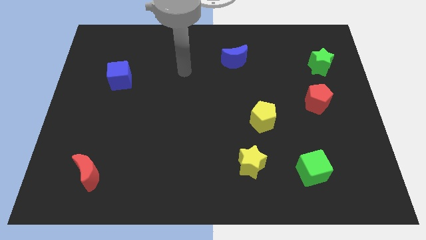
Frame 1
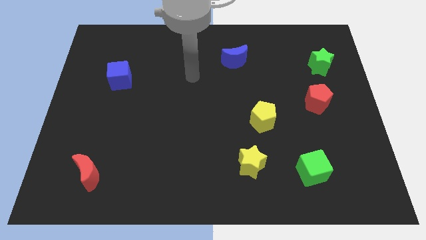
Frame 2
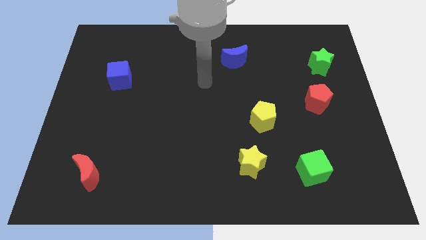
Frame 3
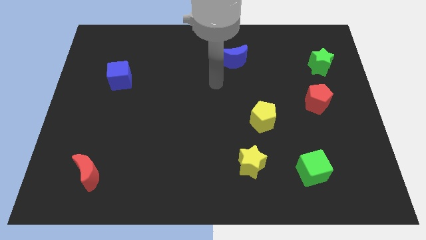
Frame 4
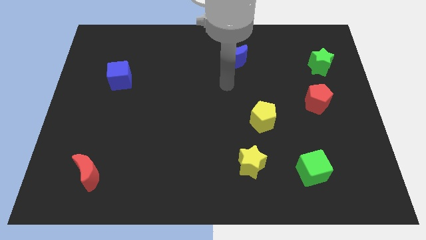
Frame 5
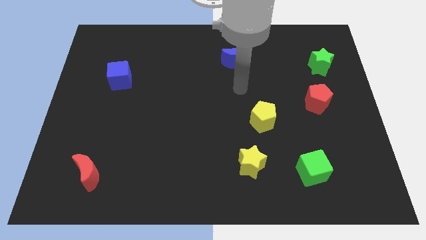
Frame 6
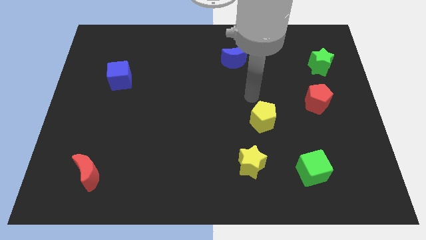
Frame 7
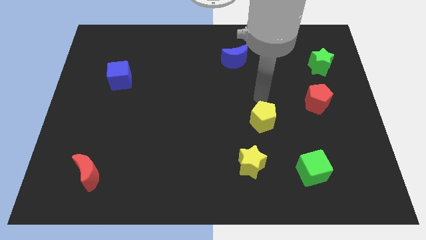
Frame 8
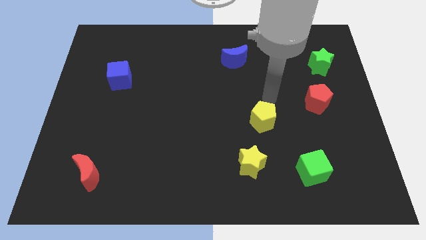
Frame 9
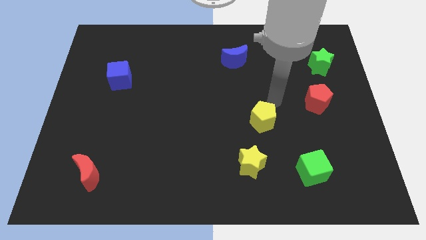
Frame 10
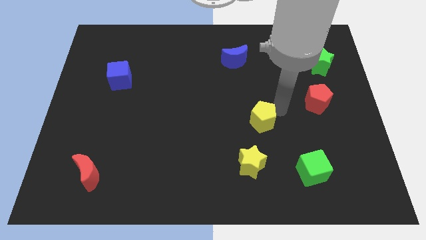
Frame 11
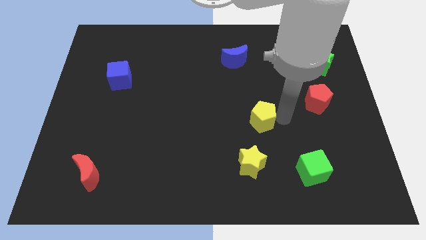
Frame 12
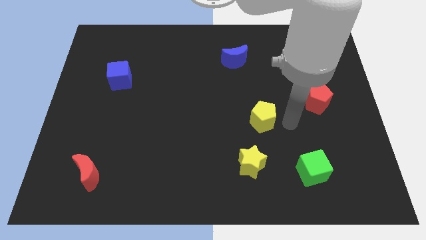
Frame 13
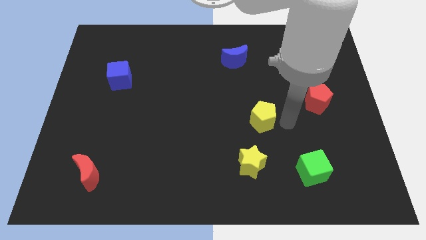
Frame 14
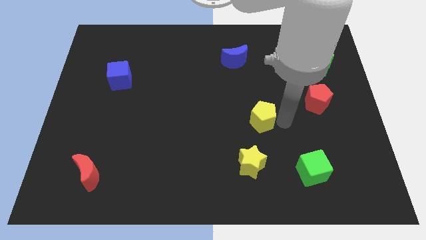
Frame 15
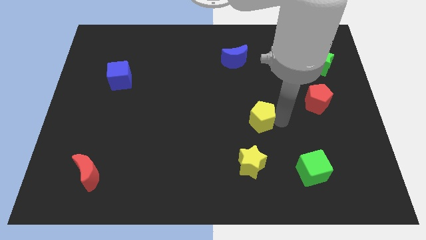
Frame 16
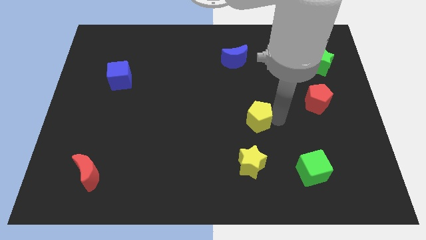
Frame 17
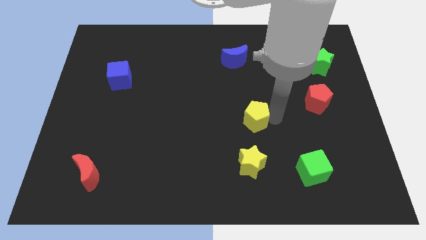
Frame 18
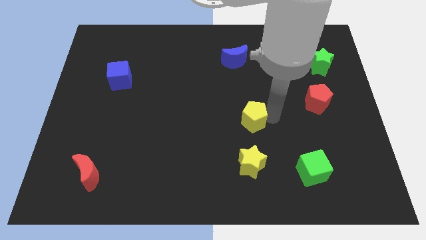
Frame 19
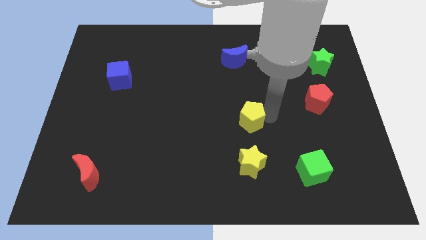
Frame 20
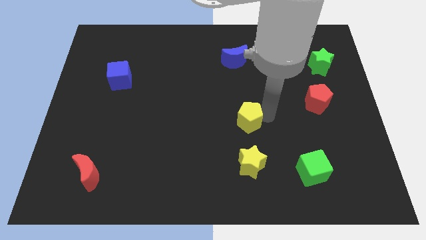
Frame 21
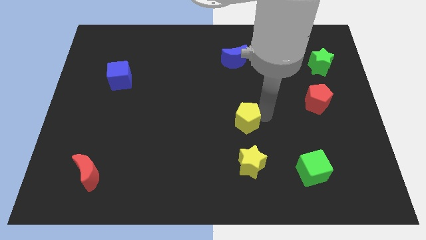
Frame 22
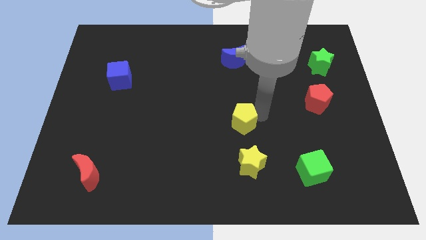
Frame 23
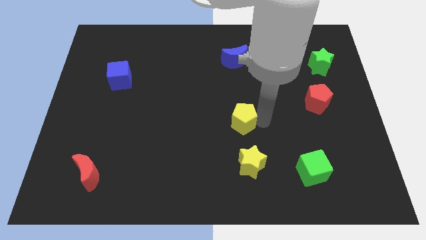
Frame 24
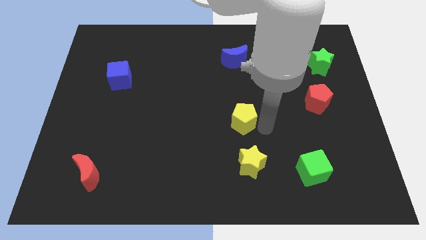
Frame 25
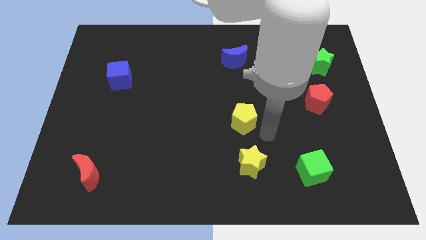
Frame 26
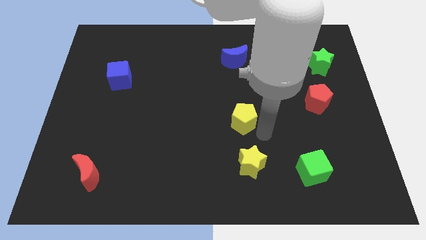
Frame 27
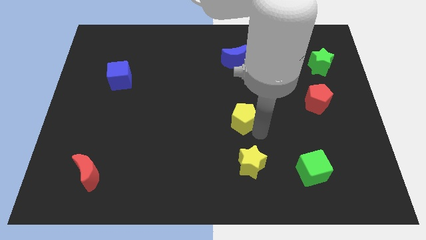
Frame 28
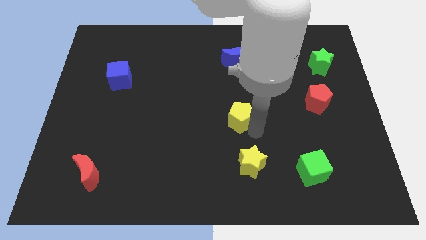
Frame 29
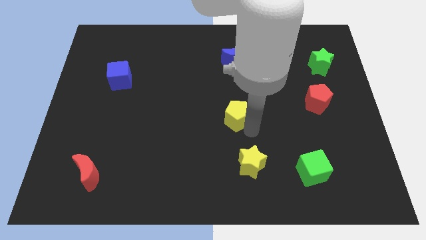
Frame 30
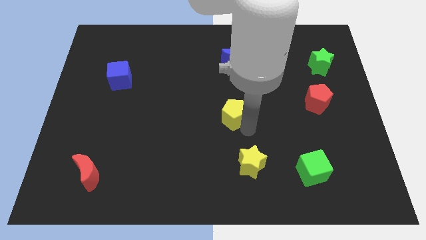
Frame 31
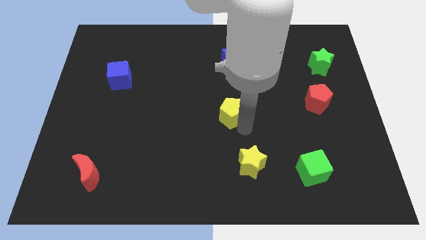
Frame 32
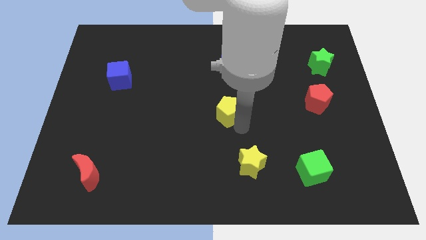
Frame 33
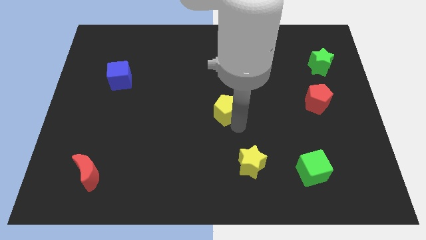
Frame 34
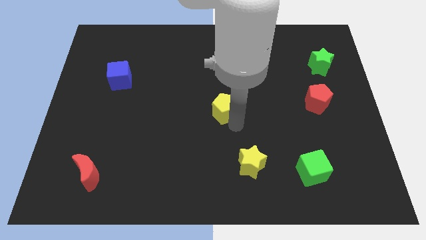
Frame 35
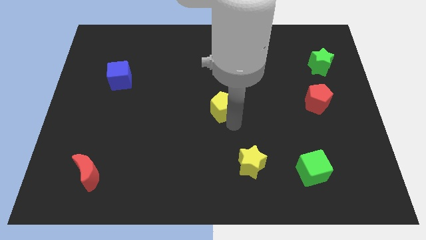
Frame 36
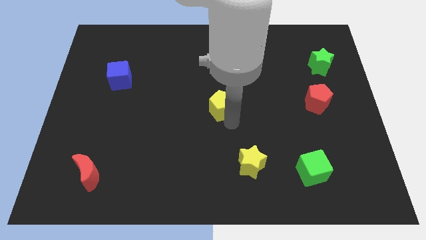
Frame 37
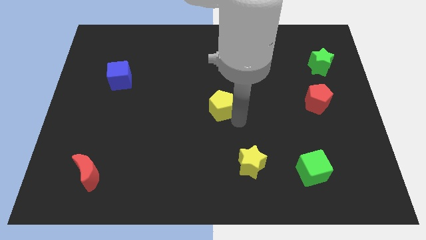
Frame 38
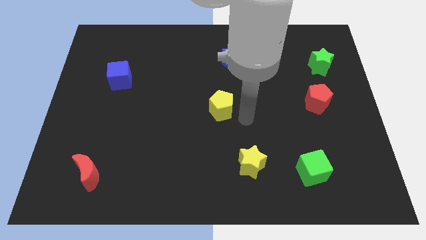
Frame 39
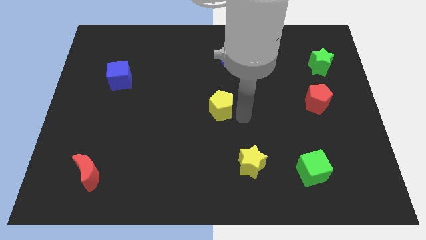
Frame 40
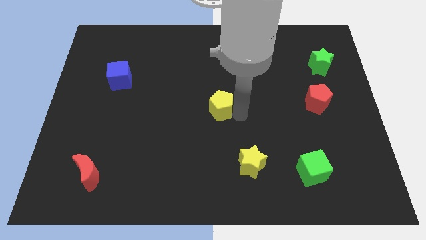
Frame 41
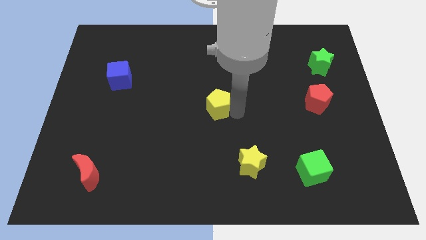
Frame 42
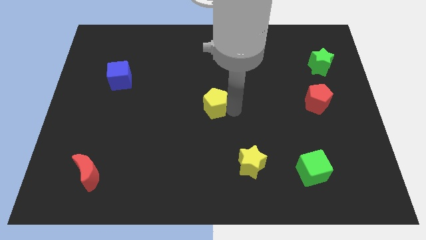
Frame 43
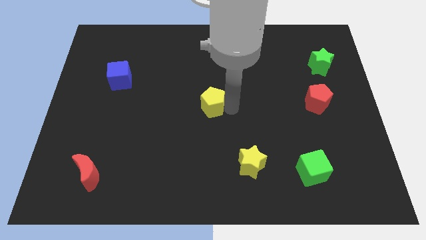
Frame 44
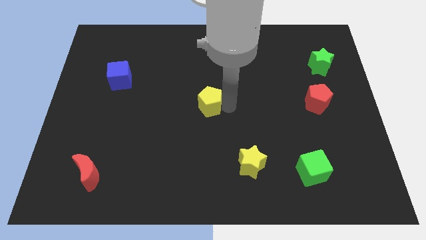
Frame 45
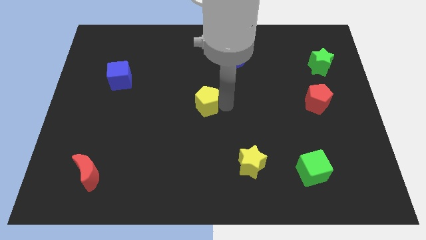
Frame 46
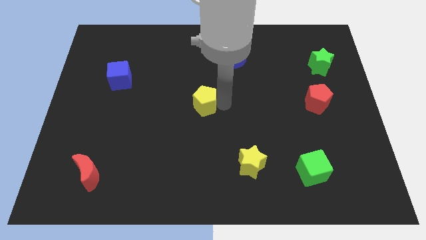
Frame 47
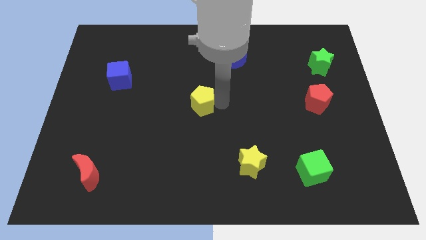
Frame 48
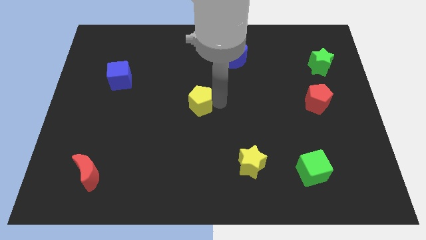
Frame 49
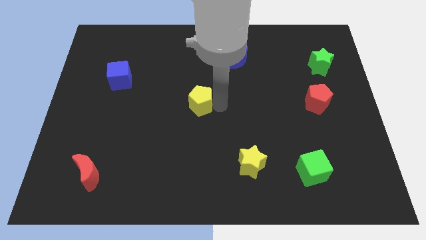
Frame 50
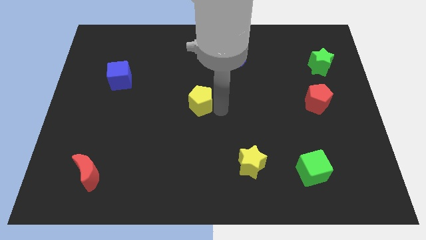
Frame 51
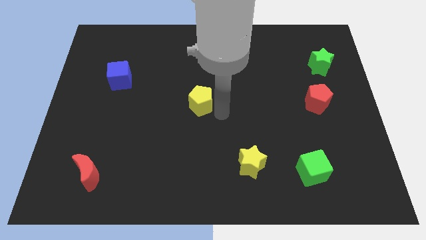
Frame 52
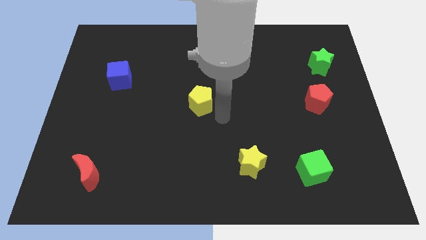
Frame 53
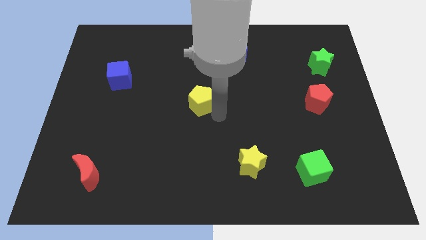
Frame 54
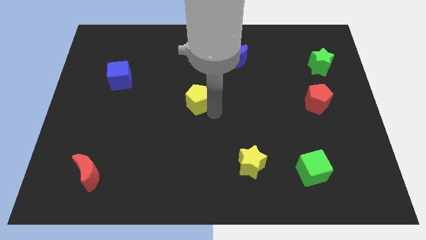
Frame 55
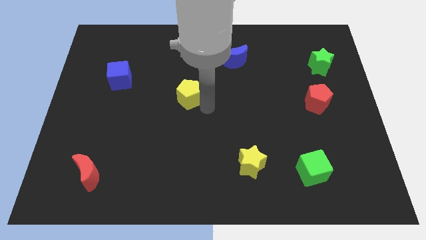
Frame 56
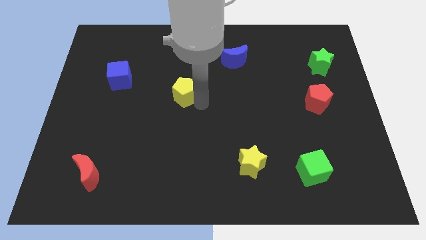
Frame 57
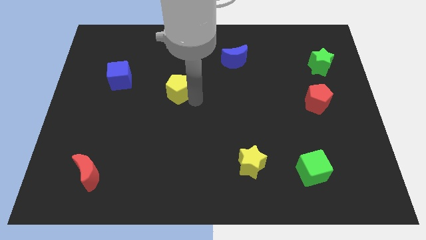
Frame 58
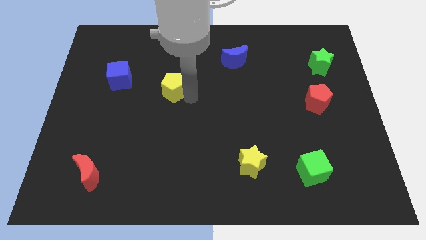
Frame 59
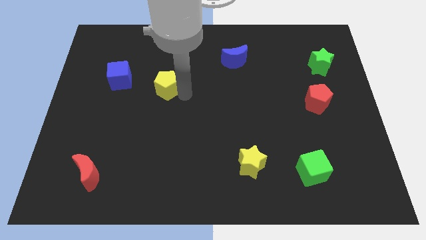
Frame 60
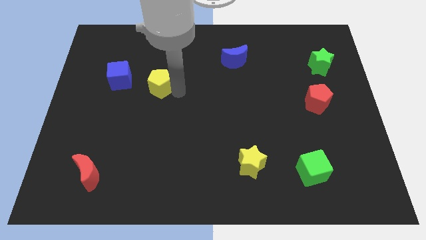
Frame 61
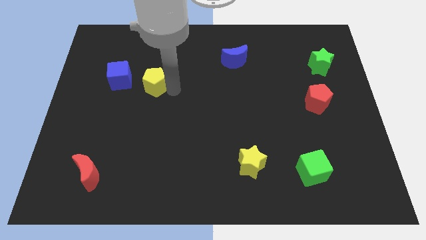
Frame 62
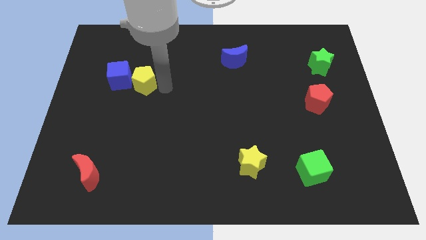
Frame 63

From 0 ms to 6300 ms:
push the yellow pentagon towards the blue cube
